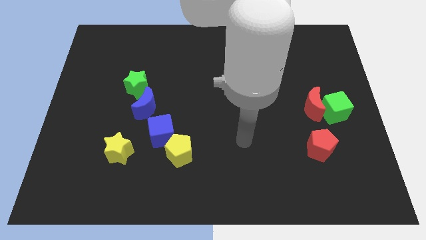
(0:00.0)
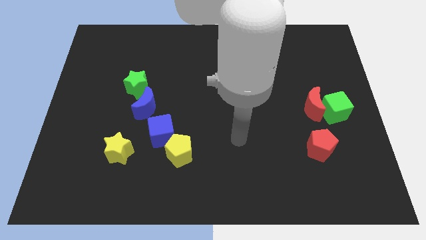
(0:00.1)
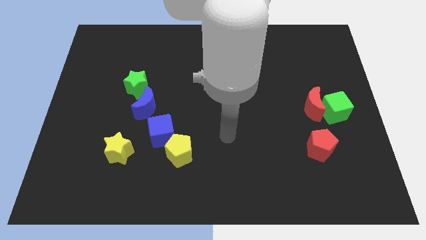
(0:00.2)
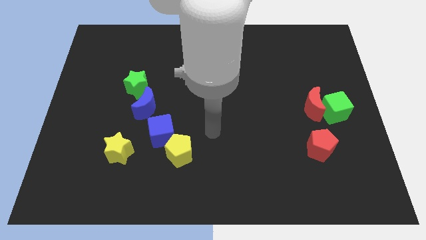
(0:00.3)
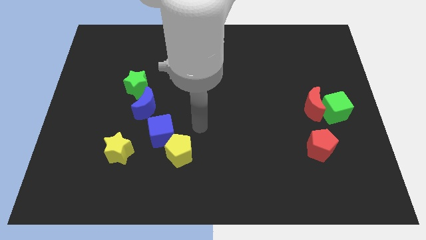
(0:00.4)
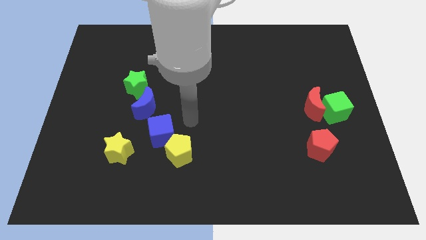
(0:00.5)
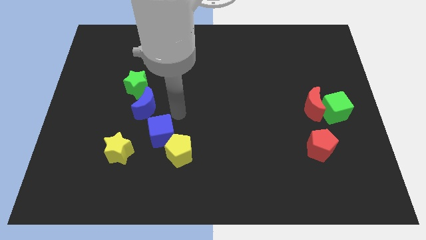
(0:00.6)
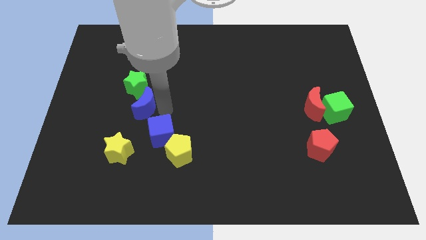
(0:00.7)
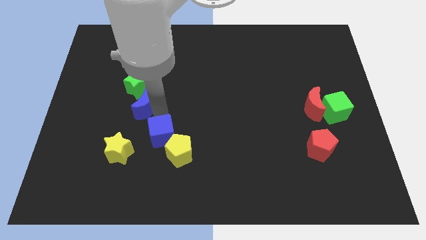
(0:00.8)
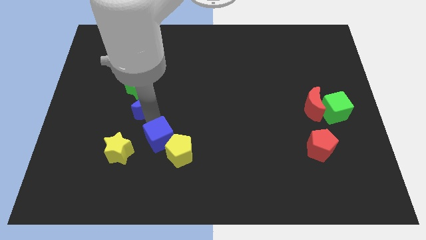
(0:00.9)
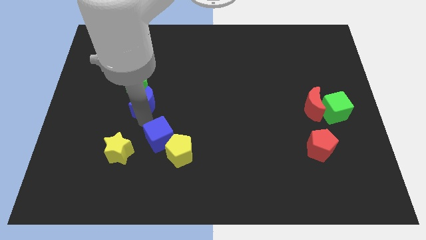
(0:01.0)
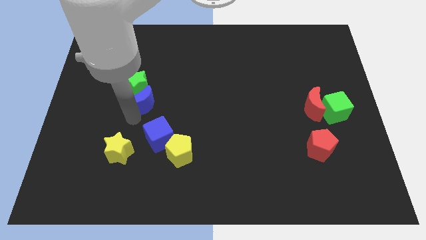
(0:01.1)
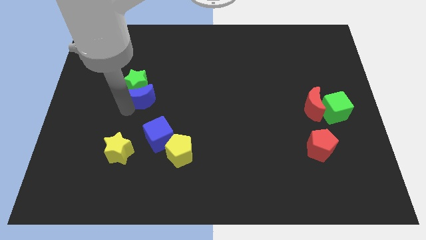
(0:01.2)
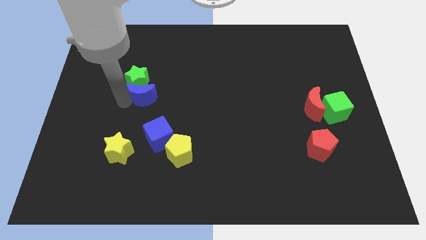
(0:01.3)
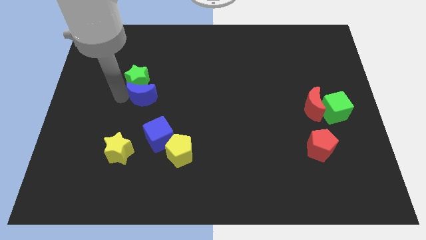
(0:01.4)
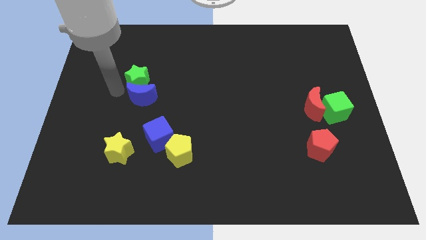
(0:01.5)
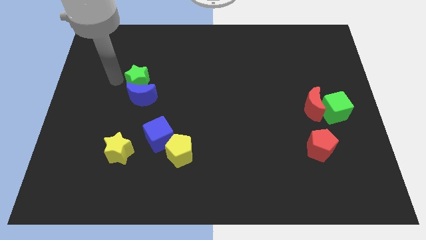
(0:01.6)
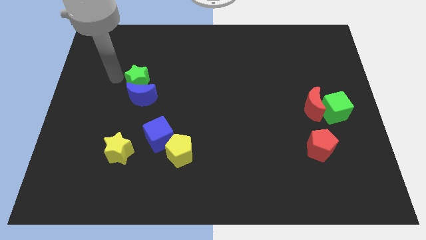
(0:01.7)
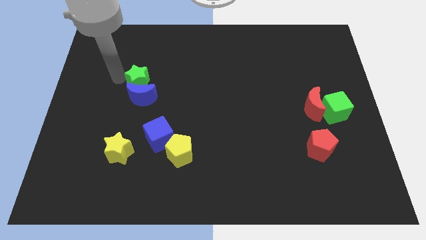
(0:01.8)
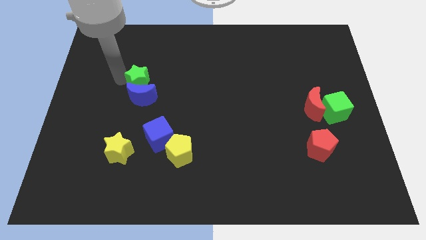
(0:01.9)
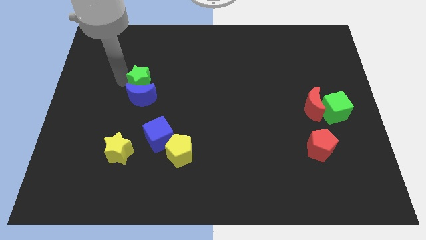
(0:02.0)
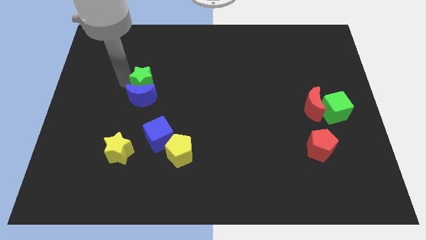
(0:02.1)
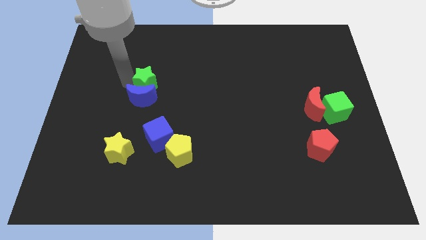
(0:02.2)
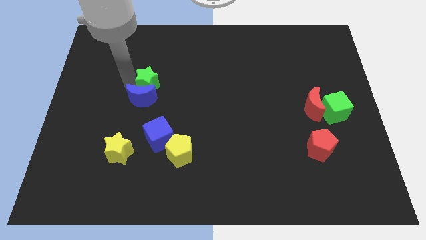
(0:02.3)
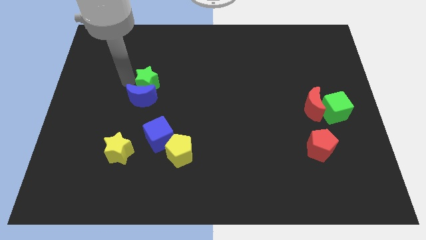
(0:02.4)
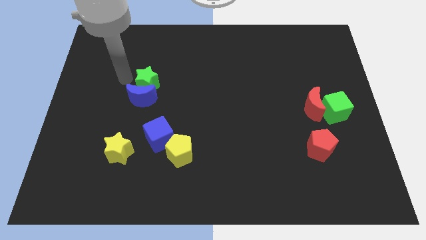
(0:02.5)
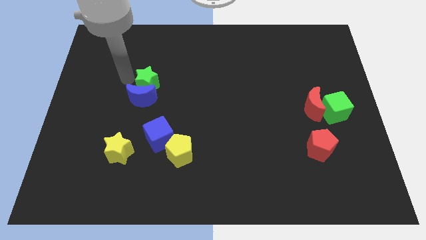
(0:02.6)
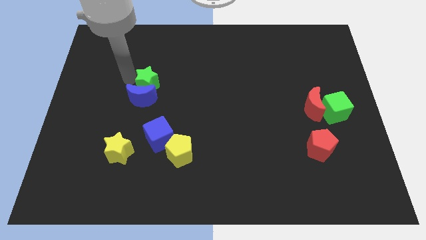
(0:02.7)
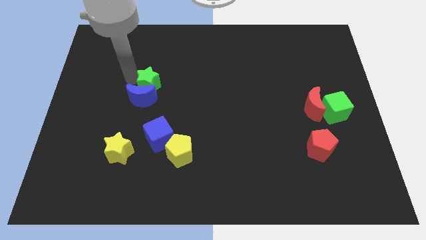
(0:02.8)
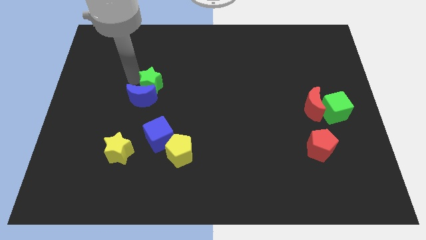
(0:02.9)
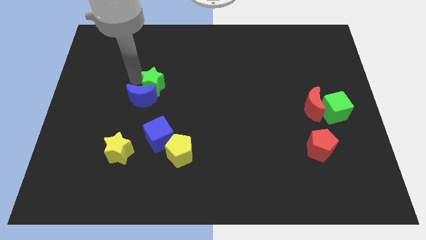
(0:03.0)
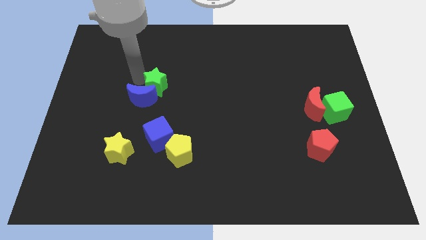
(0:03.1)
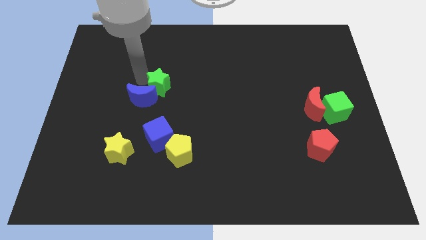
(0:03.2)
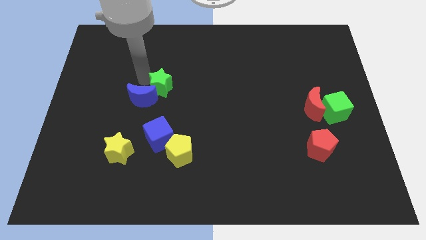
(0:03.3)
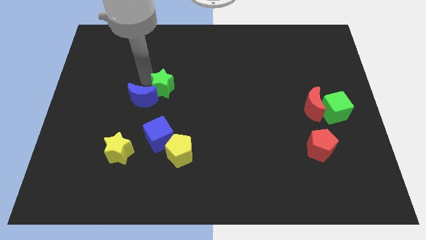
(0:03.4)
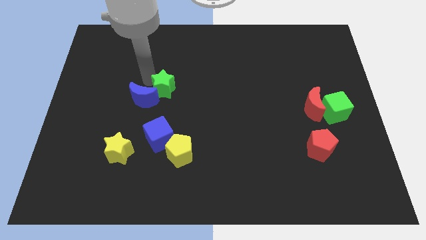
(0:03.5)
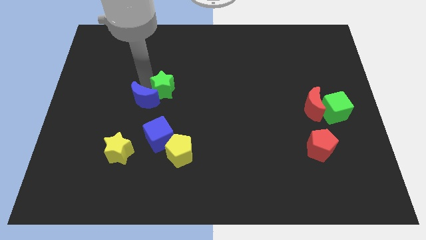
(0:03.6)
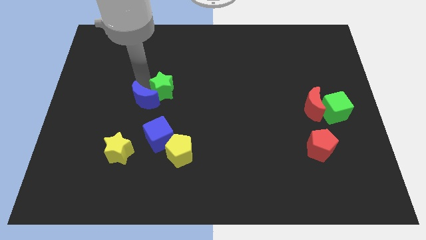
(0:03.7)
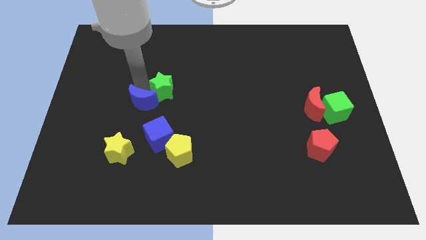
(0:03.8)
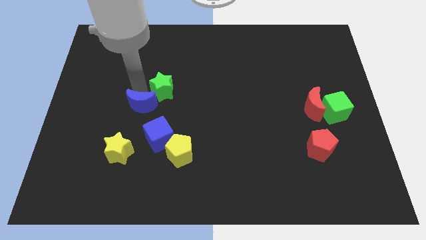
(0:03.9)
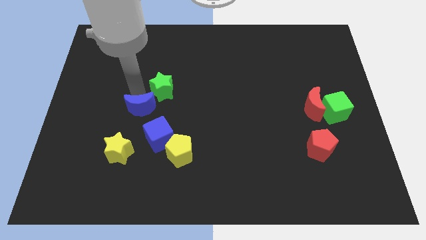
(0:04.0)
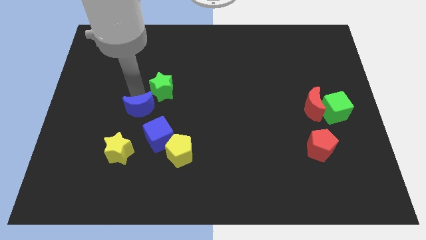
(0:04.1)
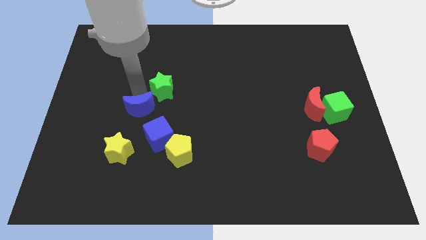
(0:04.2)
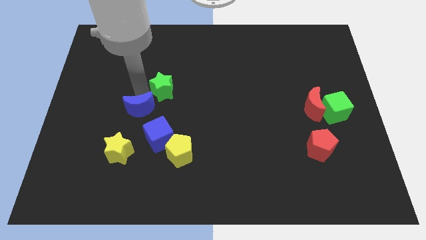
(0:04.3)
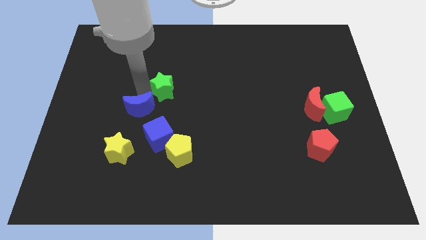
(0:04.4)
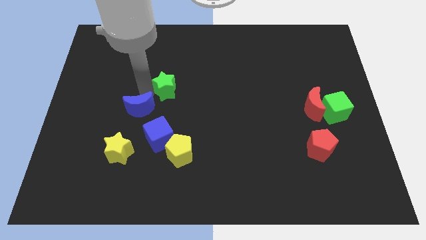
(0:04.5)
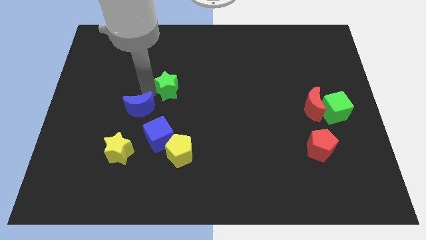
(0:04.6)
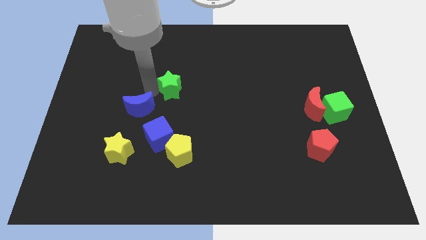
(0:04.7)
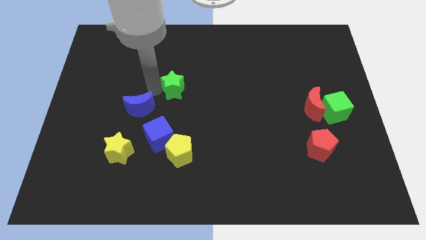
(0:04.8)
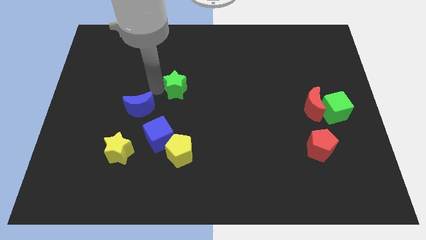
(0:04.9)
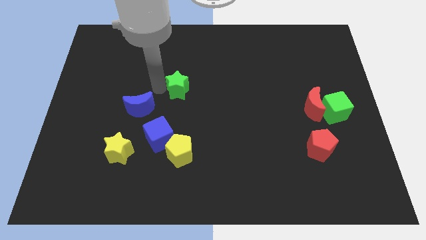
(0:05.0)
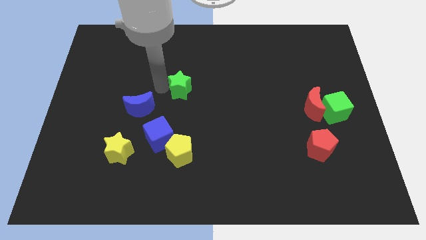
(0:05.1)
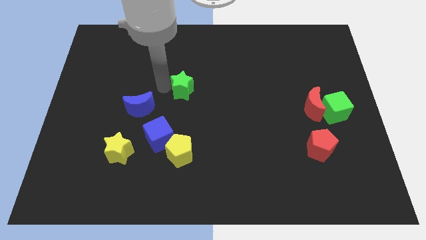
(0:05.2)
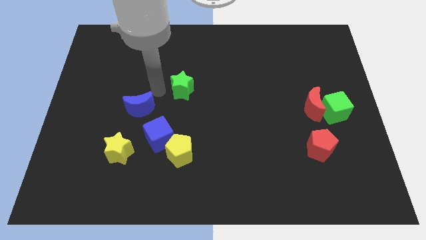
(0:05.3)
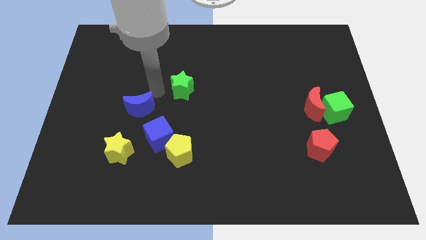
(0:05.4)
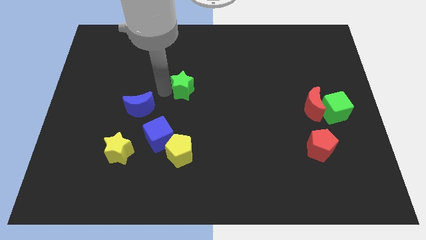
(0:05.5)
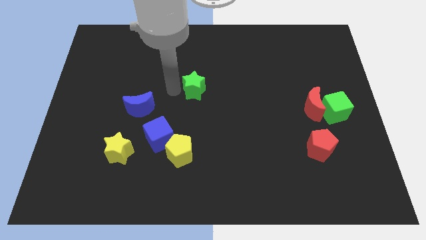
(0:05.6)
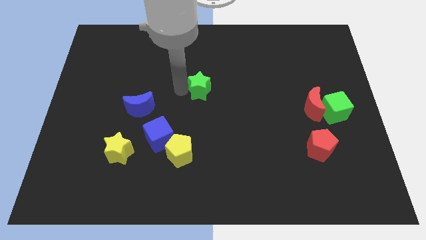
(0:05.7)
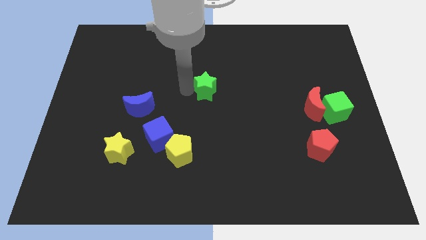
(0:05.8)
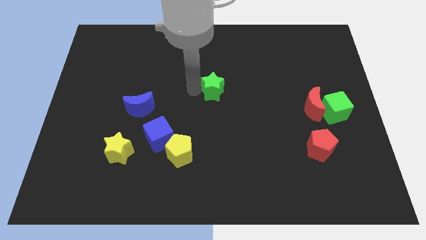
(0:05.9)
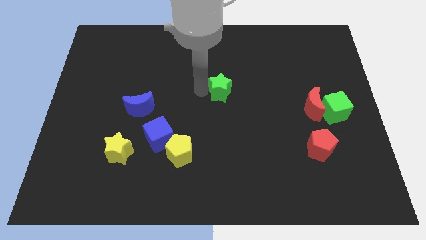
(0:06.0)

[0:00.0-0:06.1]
push the green star to the right

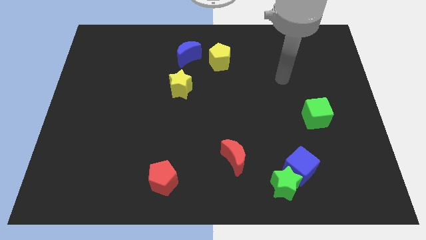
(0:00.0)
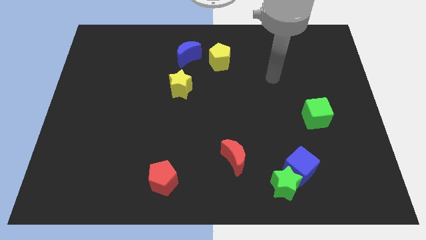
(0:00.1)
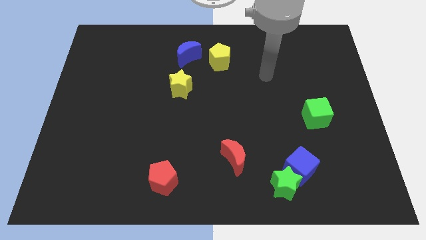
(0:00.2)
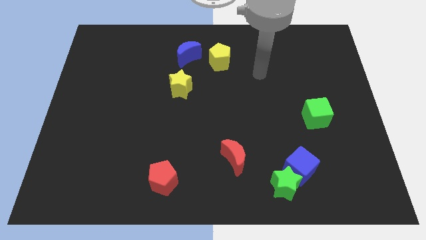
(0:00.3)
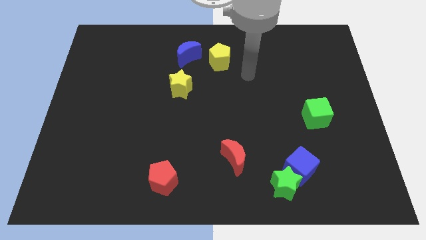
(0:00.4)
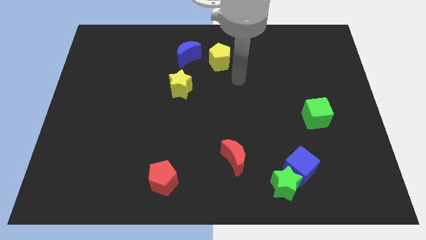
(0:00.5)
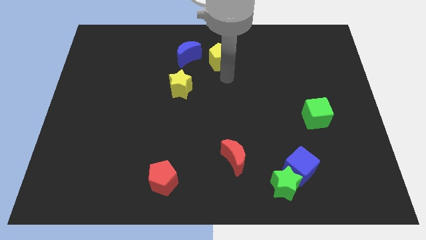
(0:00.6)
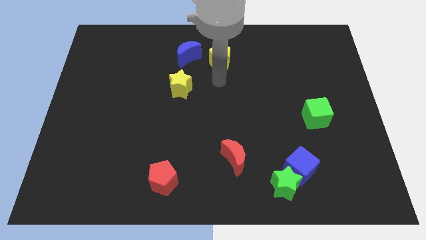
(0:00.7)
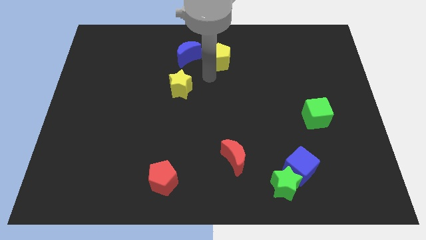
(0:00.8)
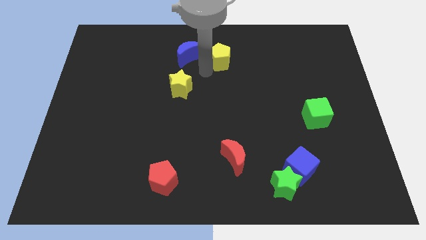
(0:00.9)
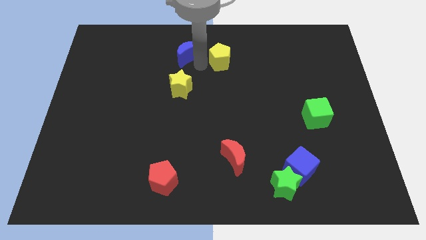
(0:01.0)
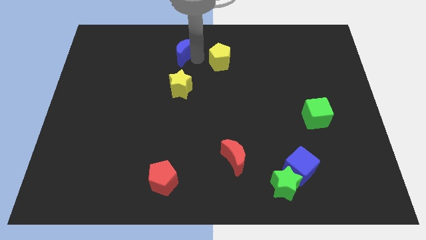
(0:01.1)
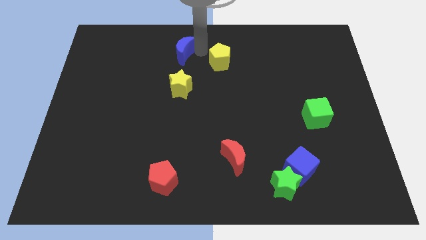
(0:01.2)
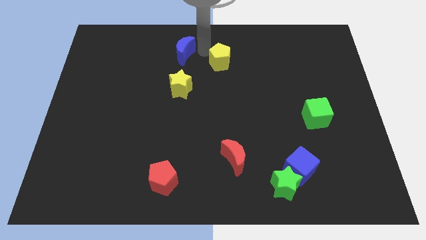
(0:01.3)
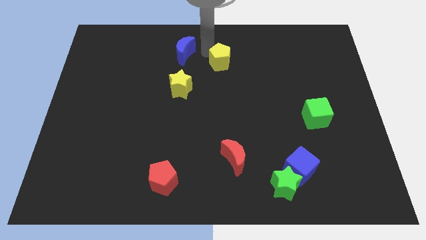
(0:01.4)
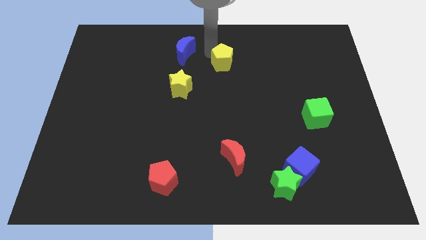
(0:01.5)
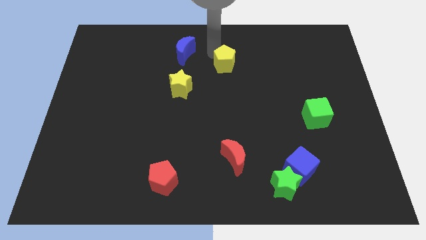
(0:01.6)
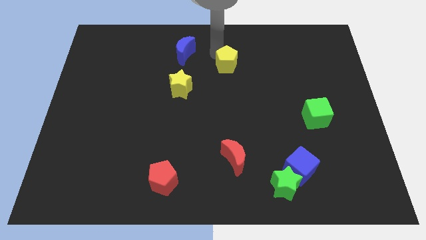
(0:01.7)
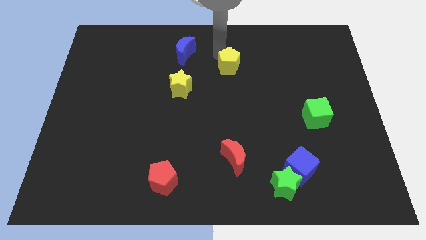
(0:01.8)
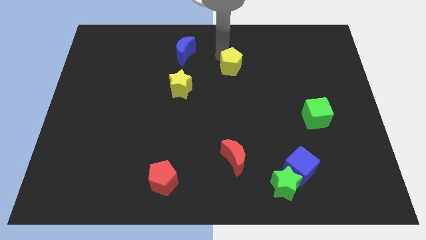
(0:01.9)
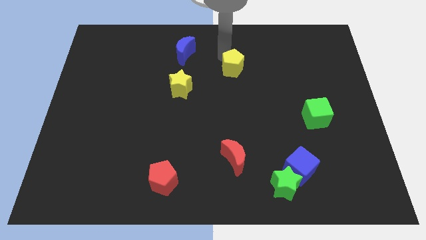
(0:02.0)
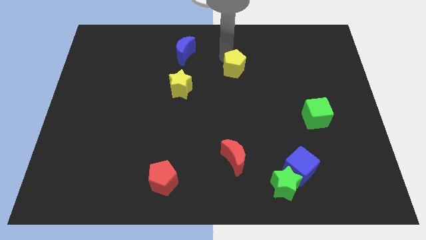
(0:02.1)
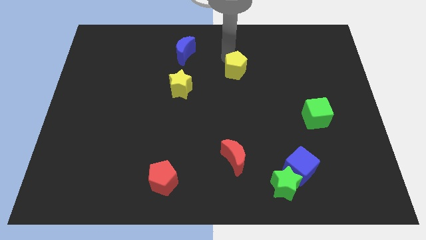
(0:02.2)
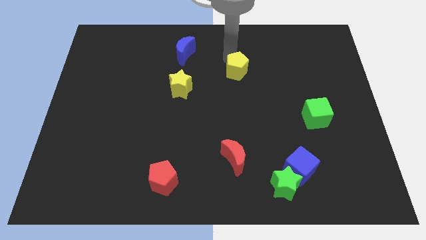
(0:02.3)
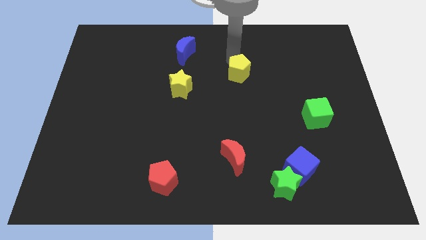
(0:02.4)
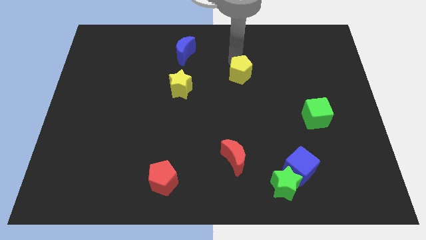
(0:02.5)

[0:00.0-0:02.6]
push the yellow pentagon downwards and right a bit
